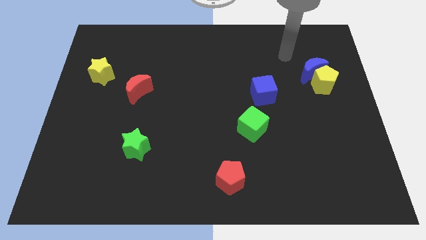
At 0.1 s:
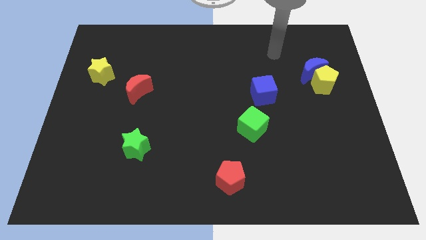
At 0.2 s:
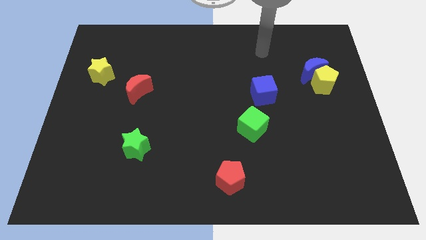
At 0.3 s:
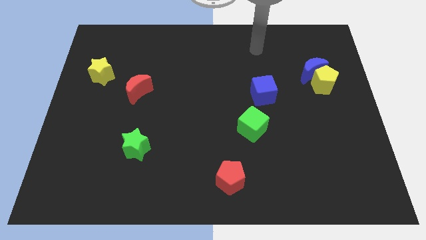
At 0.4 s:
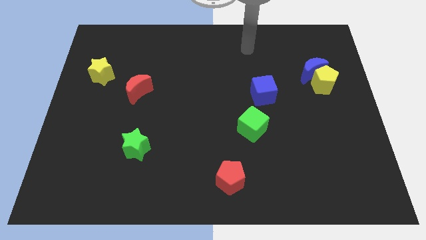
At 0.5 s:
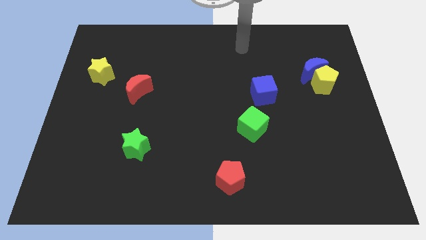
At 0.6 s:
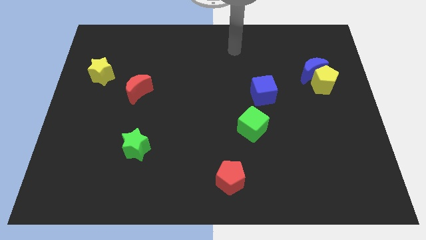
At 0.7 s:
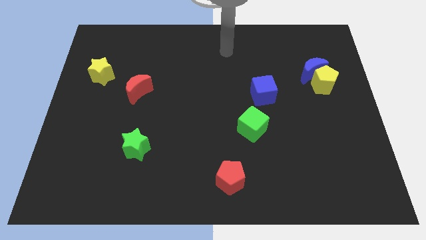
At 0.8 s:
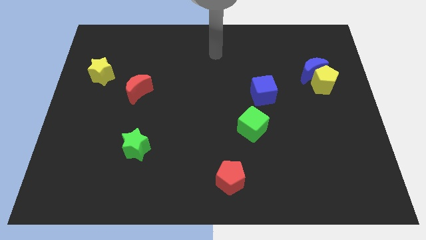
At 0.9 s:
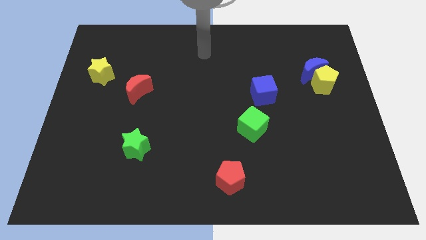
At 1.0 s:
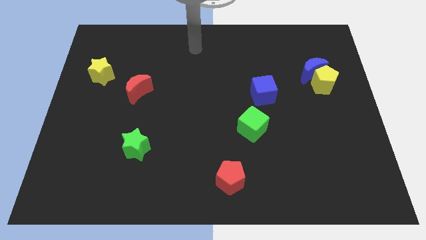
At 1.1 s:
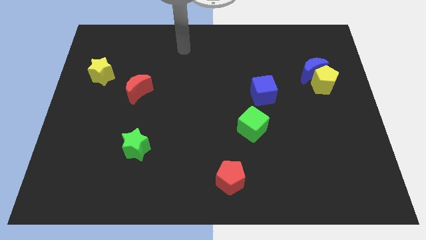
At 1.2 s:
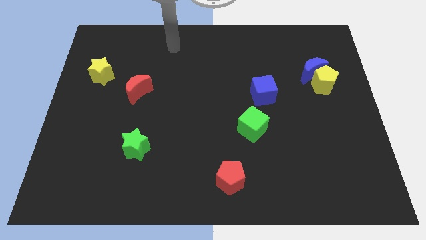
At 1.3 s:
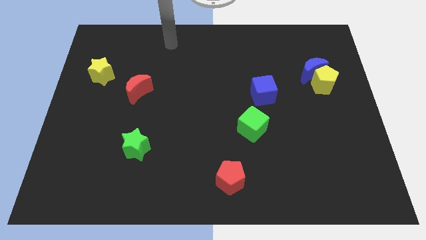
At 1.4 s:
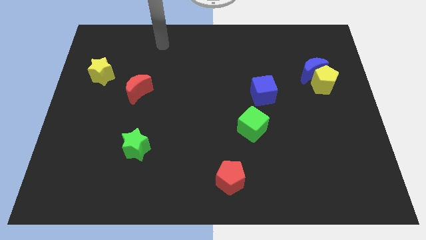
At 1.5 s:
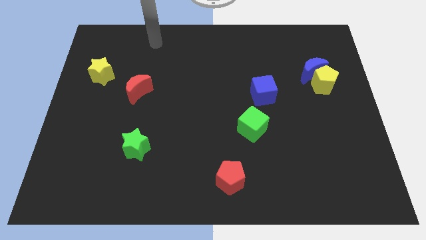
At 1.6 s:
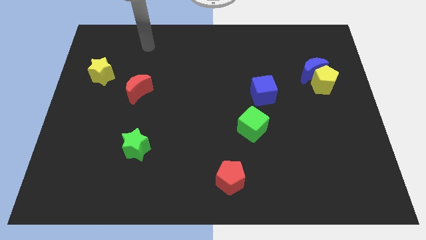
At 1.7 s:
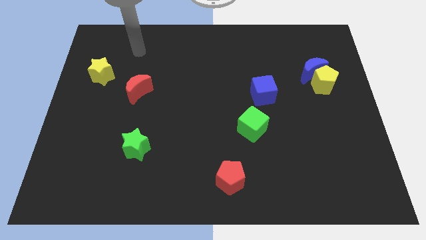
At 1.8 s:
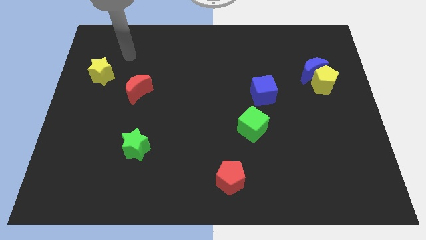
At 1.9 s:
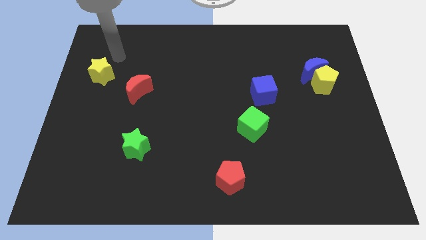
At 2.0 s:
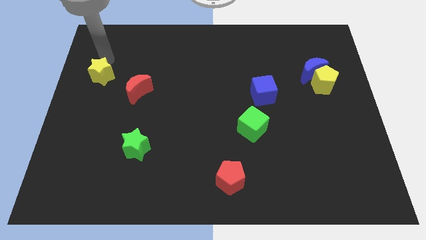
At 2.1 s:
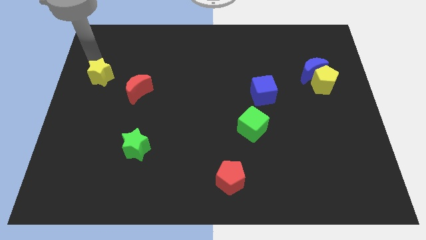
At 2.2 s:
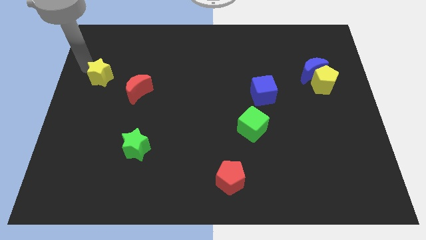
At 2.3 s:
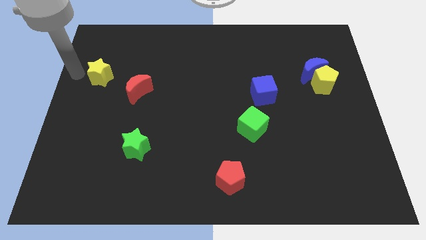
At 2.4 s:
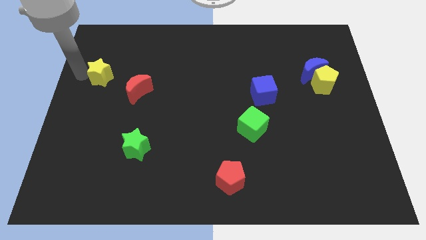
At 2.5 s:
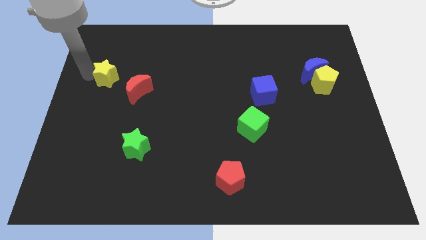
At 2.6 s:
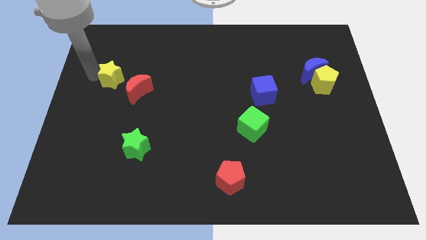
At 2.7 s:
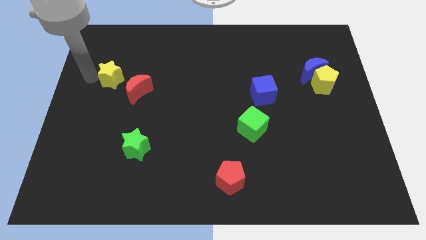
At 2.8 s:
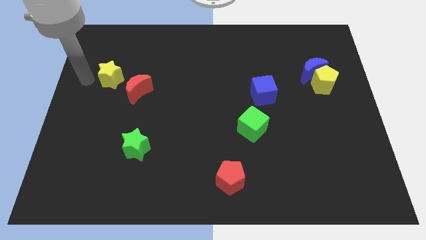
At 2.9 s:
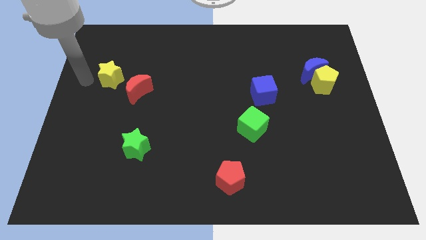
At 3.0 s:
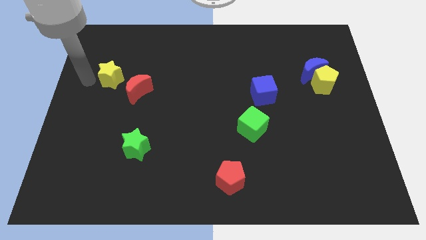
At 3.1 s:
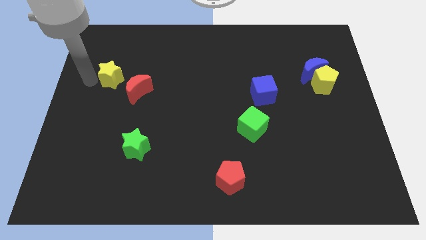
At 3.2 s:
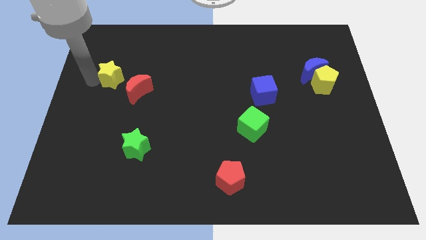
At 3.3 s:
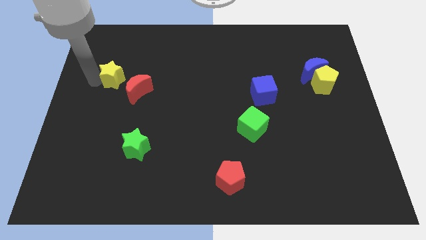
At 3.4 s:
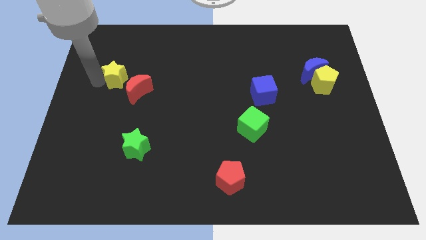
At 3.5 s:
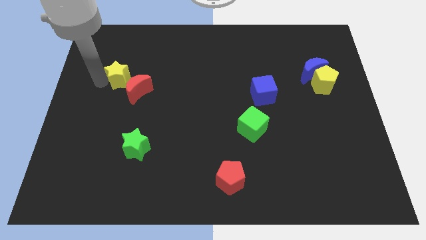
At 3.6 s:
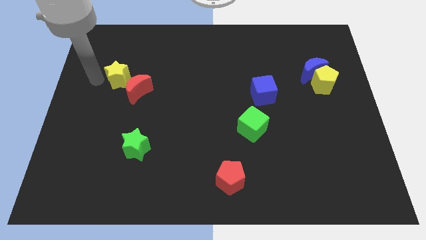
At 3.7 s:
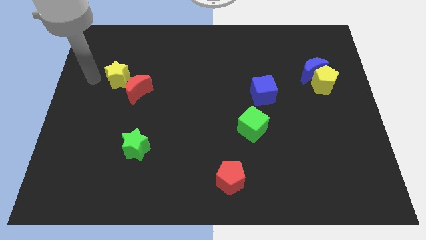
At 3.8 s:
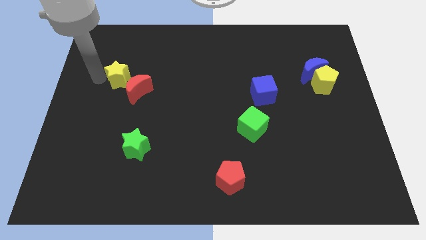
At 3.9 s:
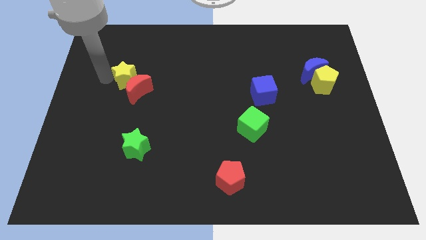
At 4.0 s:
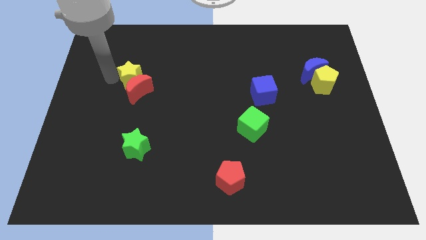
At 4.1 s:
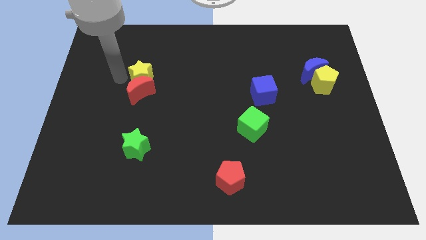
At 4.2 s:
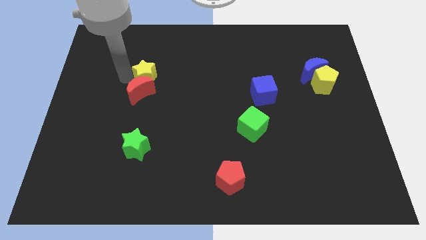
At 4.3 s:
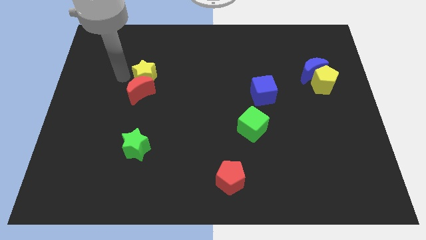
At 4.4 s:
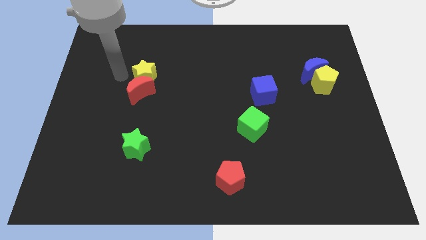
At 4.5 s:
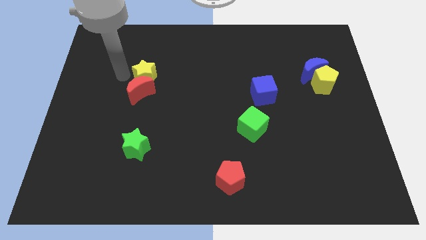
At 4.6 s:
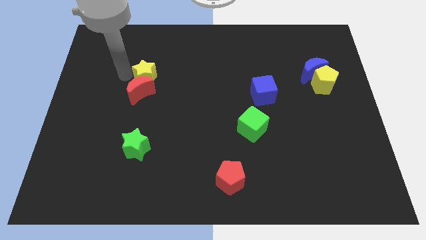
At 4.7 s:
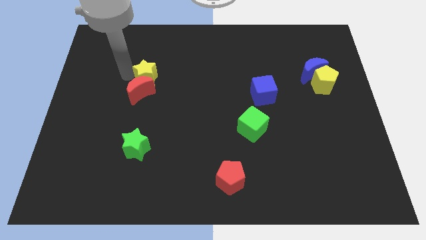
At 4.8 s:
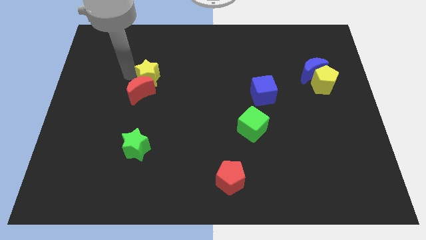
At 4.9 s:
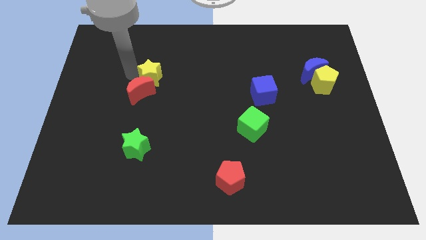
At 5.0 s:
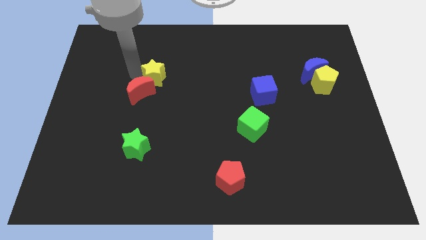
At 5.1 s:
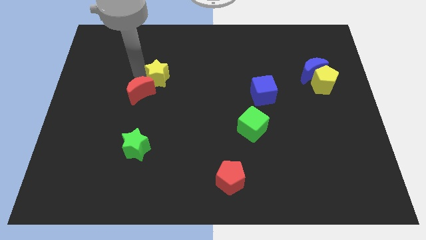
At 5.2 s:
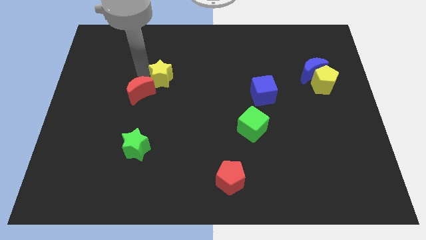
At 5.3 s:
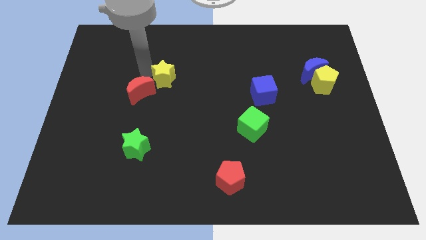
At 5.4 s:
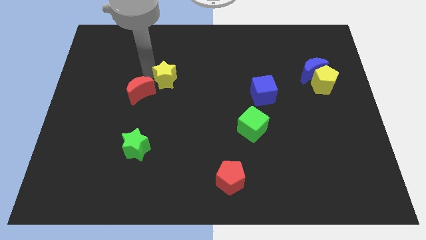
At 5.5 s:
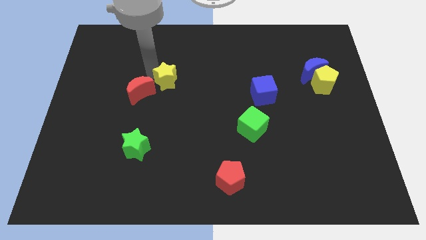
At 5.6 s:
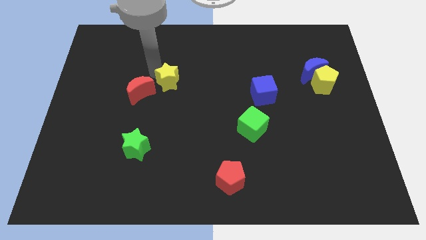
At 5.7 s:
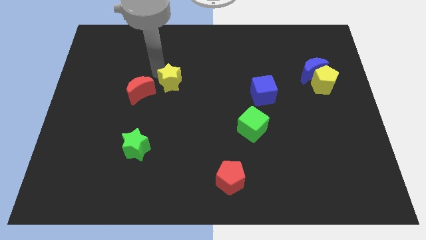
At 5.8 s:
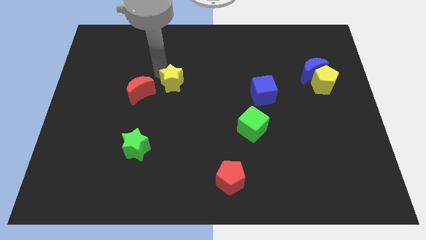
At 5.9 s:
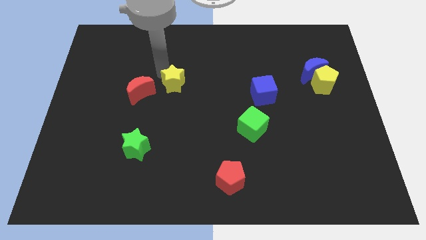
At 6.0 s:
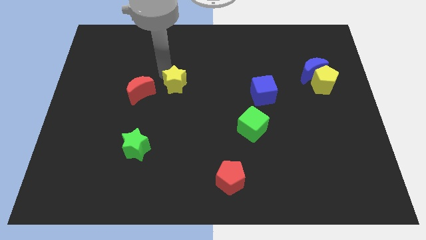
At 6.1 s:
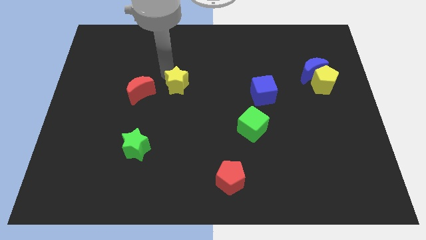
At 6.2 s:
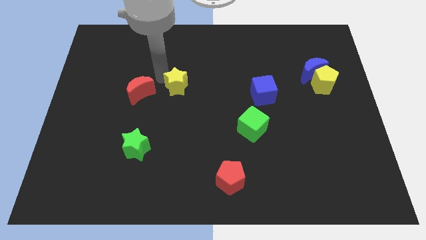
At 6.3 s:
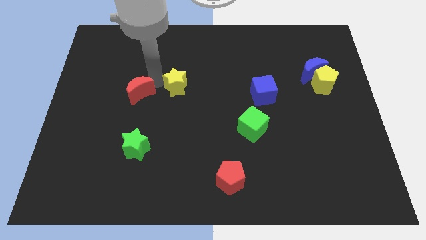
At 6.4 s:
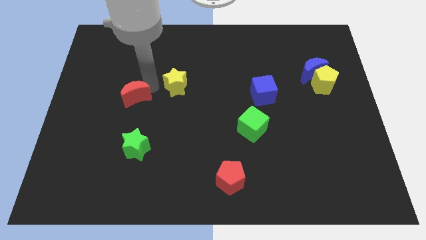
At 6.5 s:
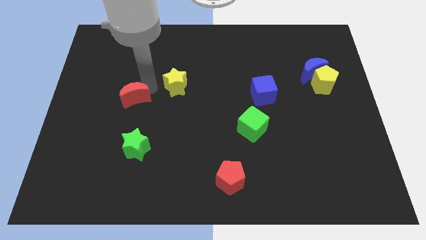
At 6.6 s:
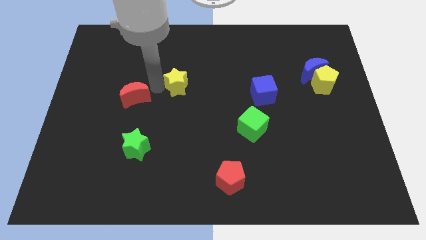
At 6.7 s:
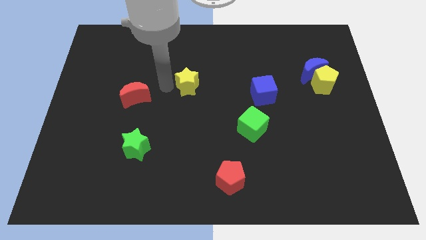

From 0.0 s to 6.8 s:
push the yellow star right

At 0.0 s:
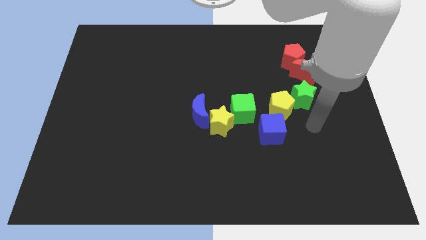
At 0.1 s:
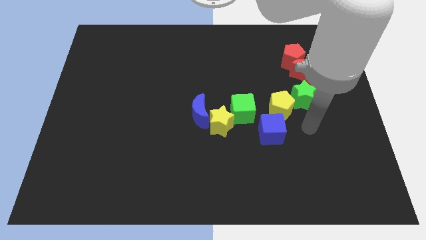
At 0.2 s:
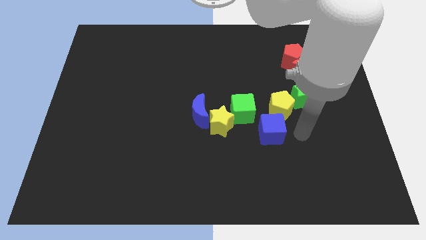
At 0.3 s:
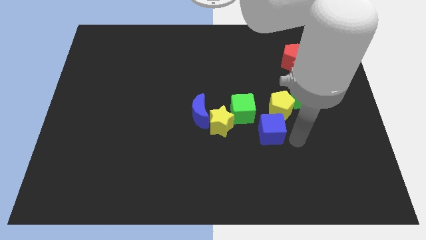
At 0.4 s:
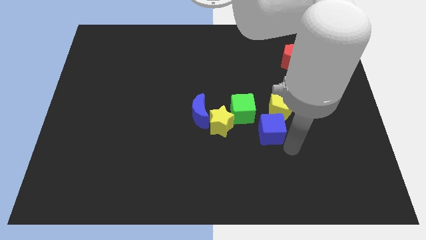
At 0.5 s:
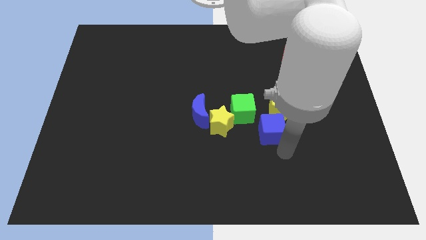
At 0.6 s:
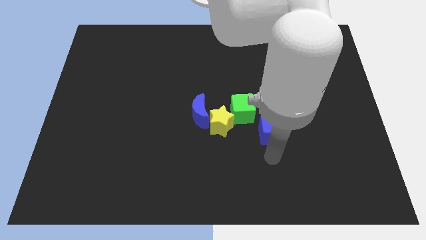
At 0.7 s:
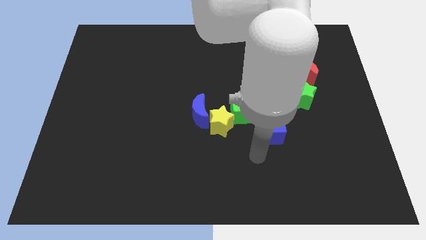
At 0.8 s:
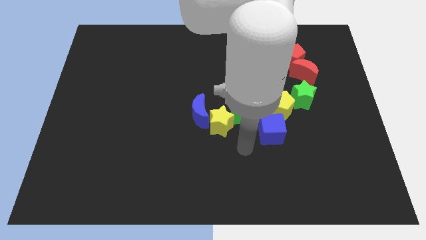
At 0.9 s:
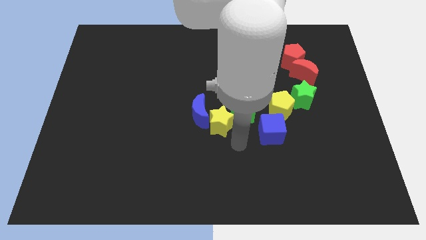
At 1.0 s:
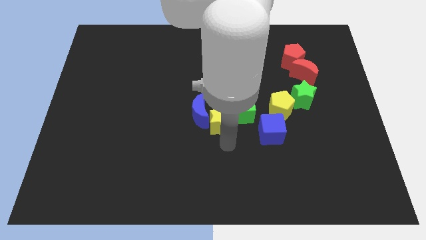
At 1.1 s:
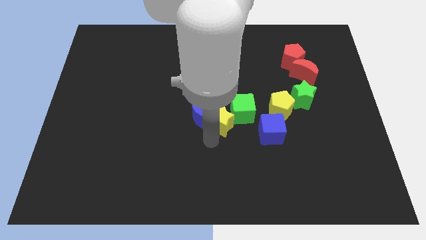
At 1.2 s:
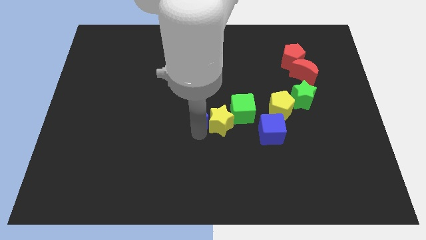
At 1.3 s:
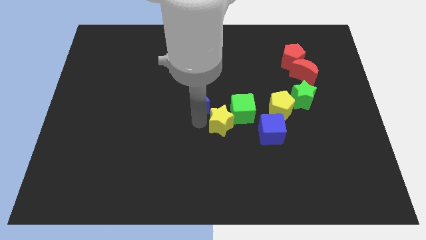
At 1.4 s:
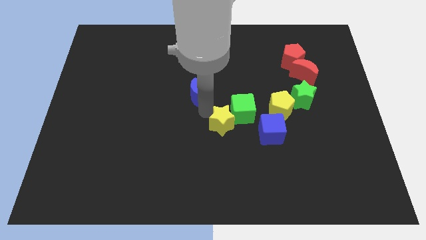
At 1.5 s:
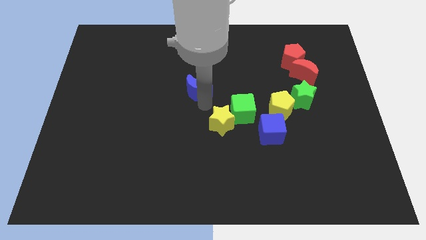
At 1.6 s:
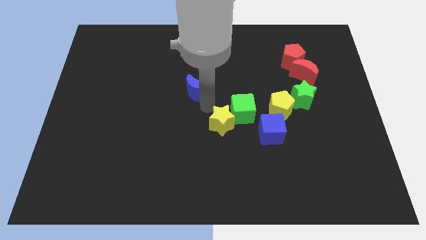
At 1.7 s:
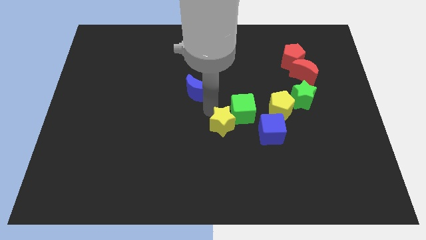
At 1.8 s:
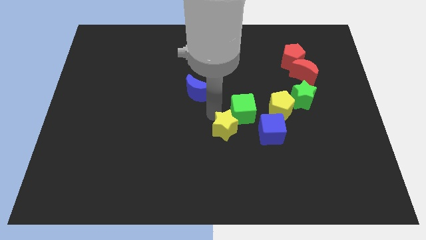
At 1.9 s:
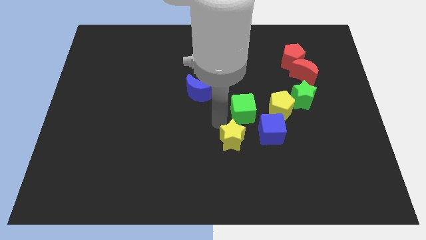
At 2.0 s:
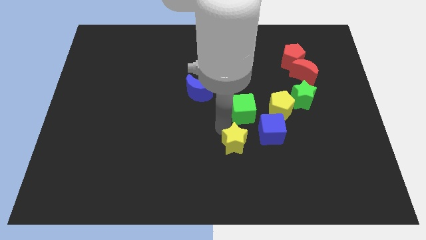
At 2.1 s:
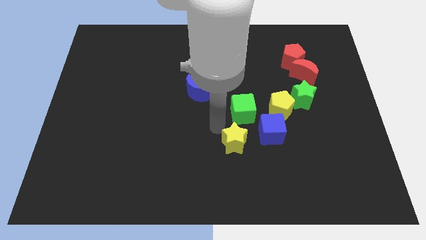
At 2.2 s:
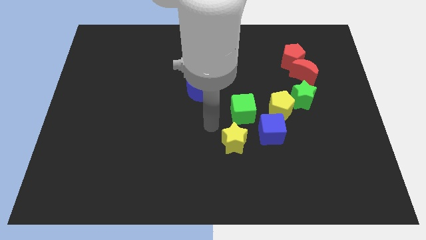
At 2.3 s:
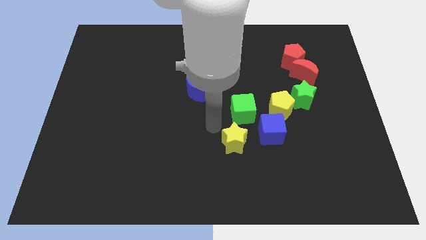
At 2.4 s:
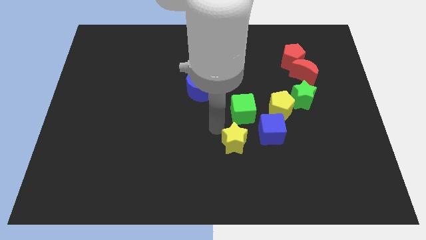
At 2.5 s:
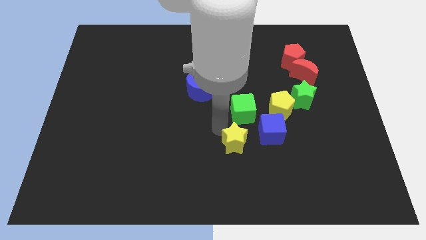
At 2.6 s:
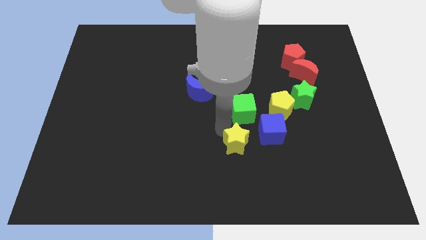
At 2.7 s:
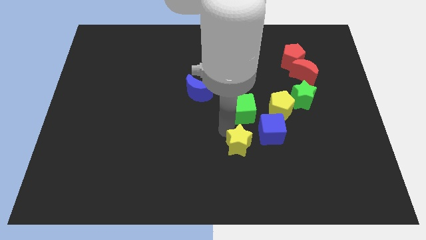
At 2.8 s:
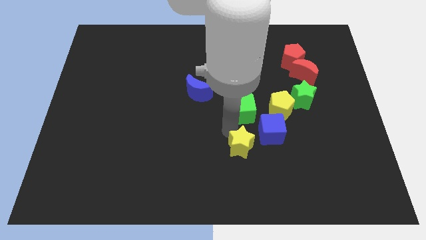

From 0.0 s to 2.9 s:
slightly slide the yellow star down and right diagonally
